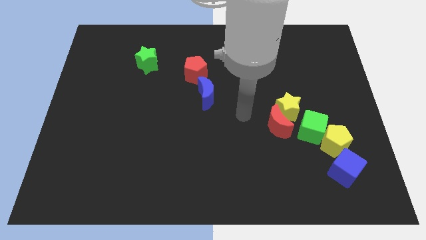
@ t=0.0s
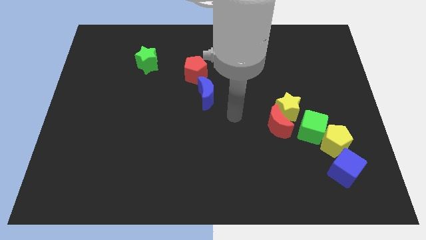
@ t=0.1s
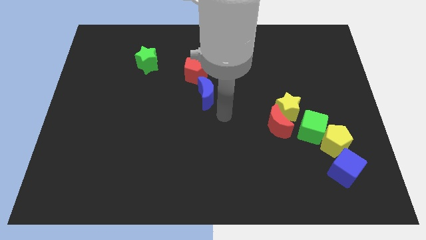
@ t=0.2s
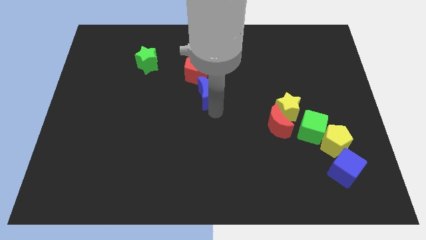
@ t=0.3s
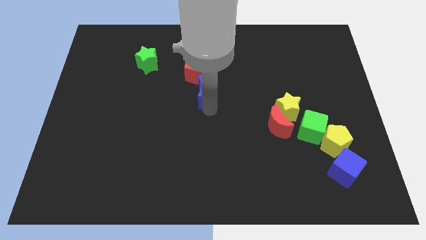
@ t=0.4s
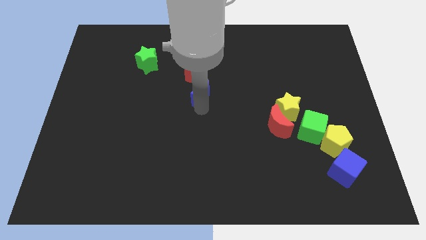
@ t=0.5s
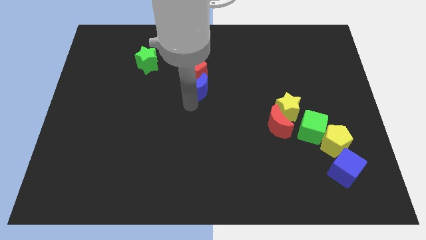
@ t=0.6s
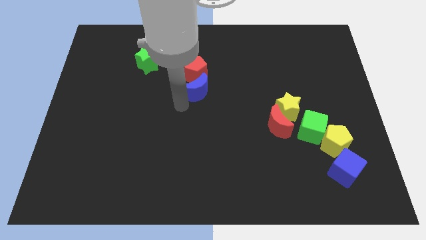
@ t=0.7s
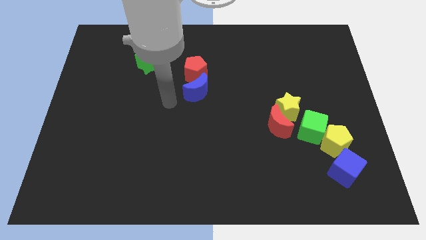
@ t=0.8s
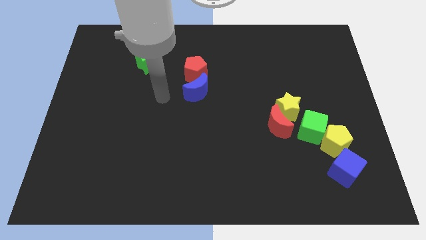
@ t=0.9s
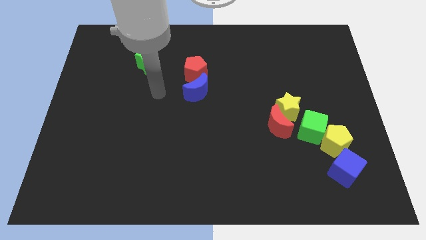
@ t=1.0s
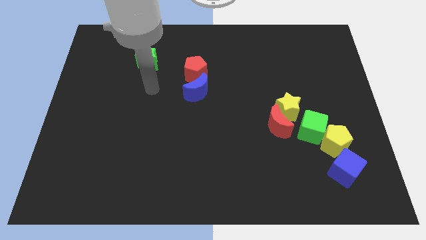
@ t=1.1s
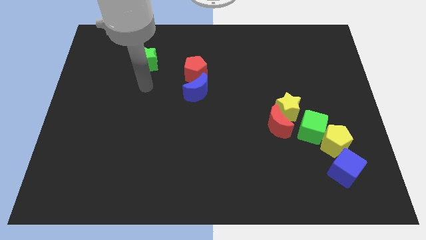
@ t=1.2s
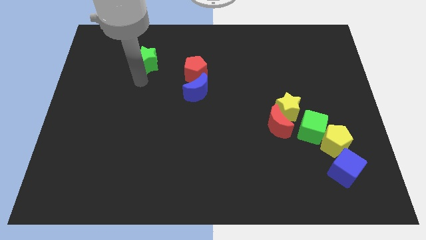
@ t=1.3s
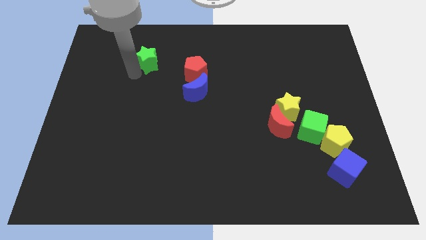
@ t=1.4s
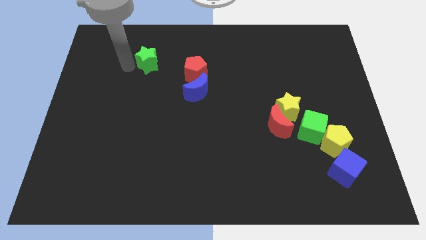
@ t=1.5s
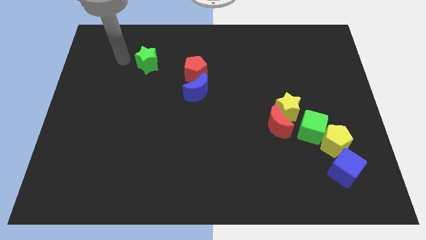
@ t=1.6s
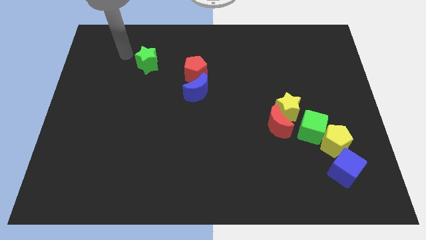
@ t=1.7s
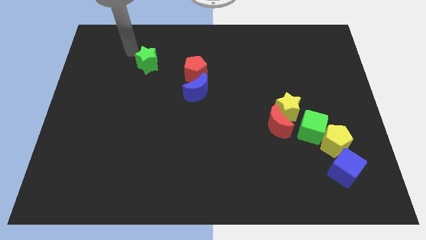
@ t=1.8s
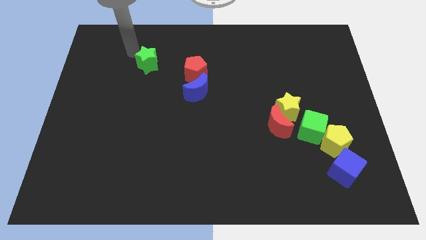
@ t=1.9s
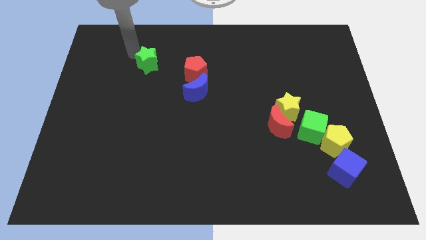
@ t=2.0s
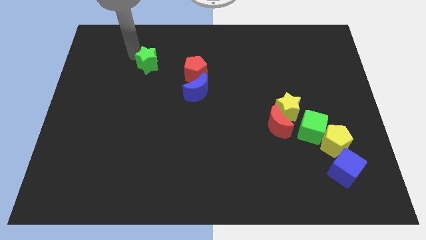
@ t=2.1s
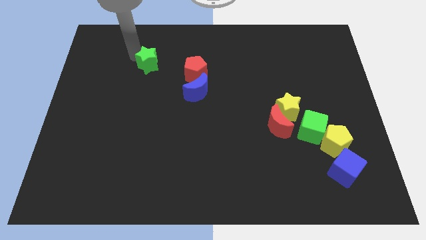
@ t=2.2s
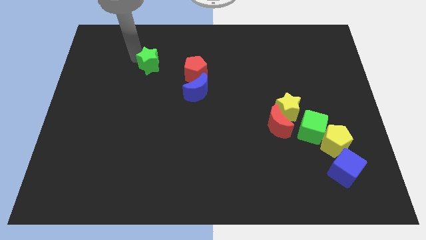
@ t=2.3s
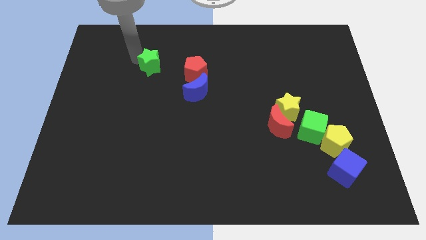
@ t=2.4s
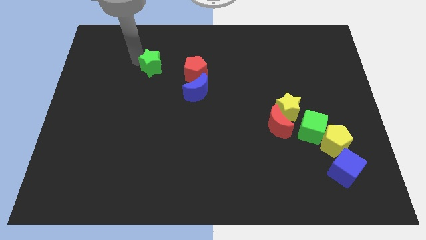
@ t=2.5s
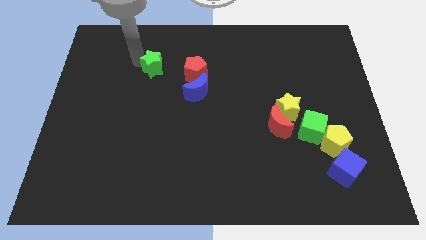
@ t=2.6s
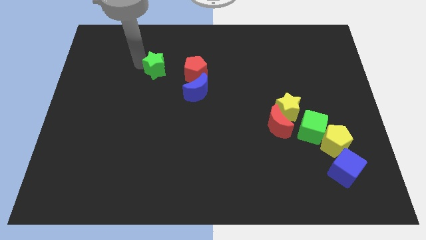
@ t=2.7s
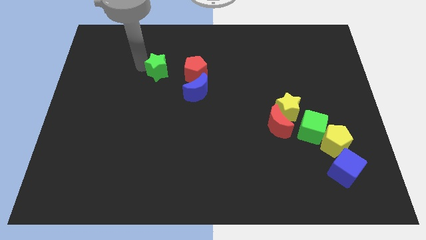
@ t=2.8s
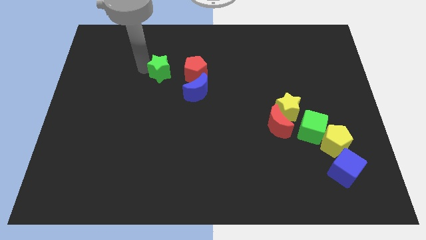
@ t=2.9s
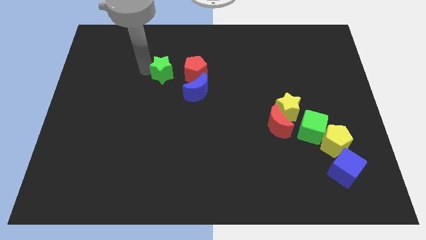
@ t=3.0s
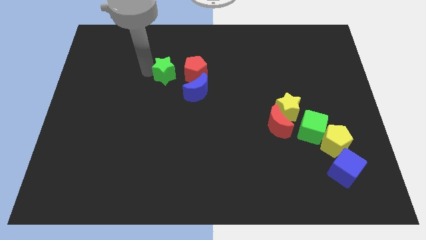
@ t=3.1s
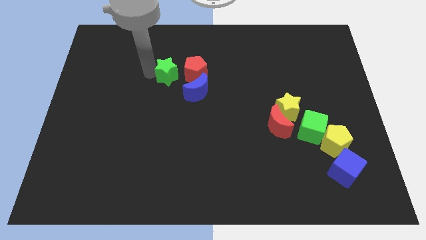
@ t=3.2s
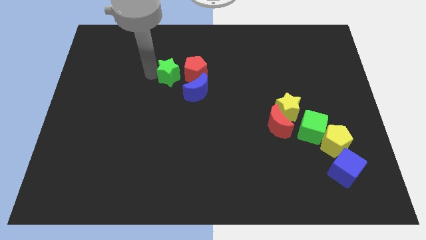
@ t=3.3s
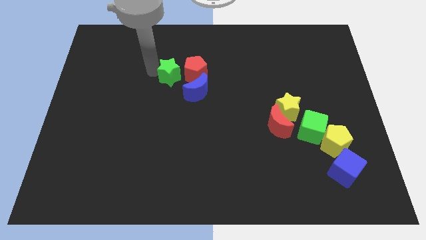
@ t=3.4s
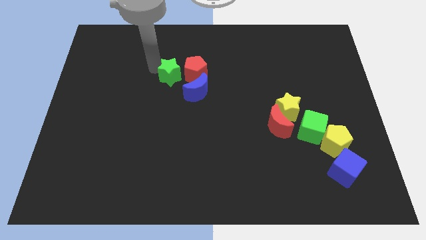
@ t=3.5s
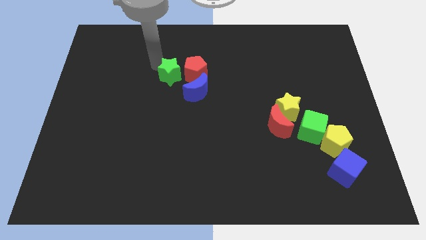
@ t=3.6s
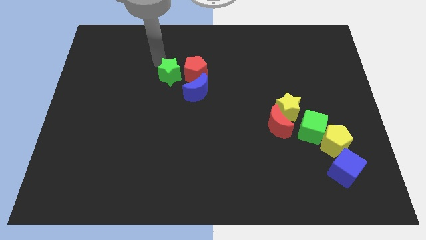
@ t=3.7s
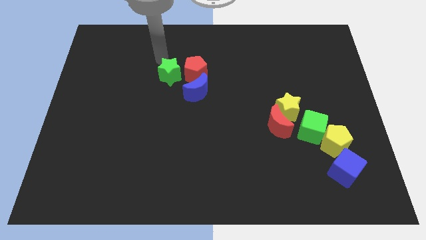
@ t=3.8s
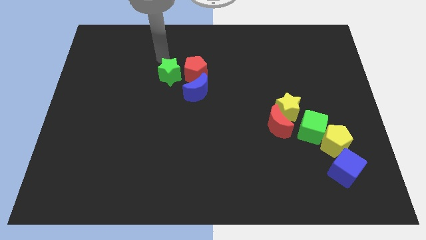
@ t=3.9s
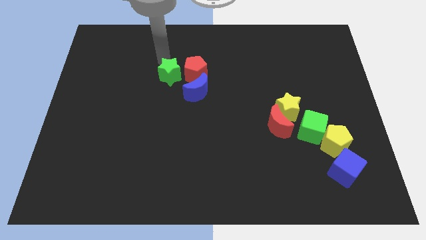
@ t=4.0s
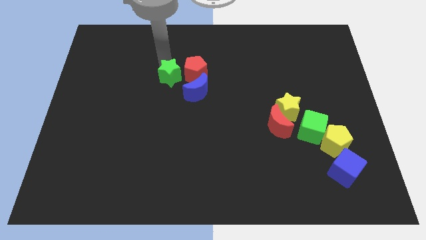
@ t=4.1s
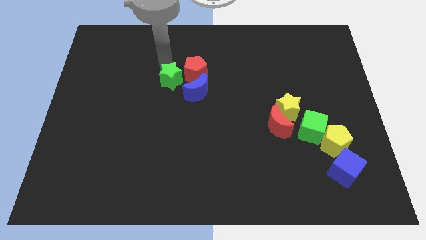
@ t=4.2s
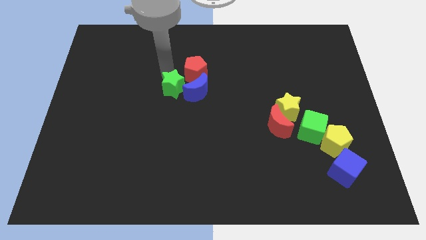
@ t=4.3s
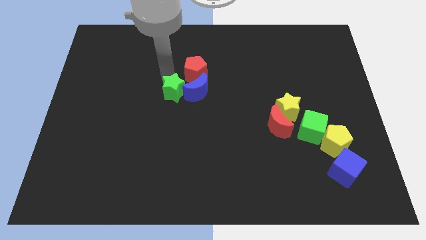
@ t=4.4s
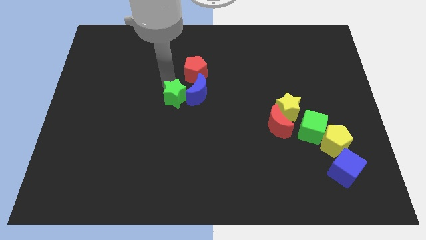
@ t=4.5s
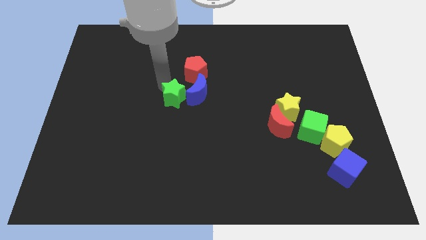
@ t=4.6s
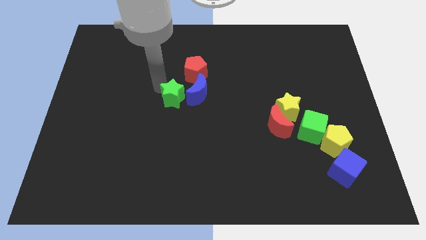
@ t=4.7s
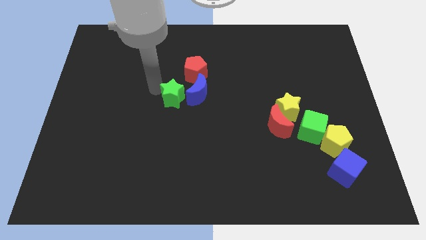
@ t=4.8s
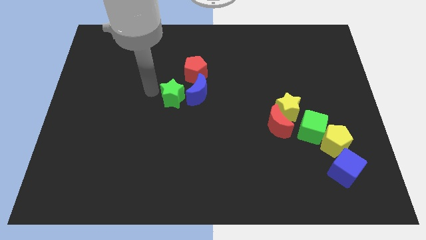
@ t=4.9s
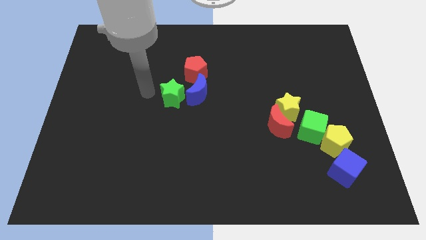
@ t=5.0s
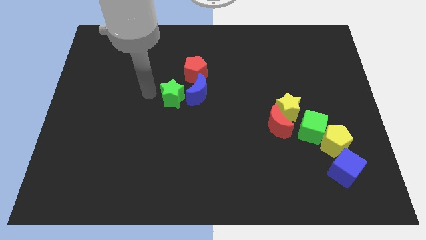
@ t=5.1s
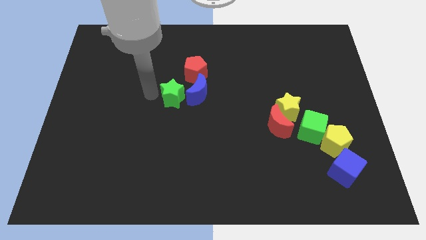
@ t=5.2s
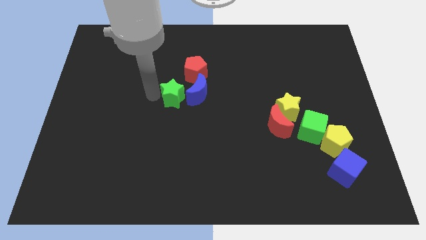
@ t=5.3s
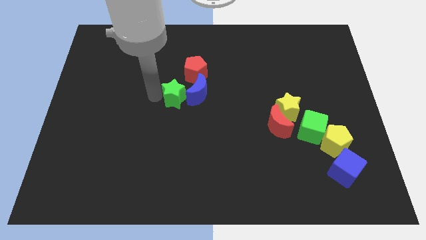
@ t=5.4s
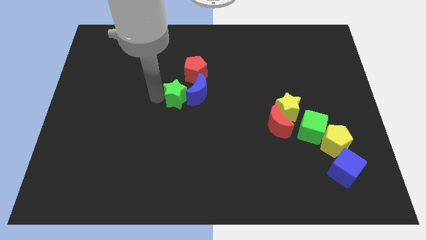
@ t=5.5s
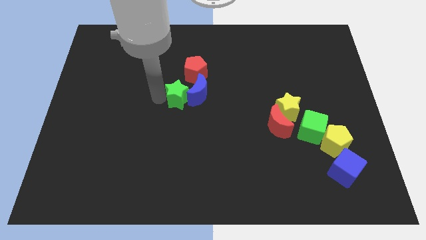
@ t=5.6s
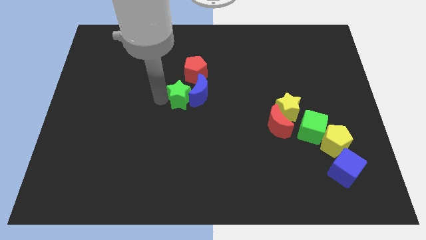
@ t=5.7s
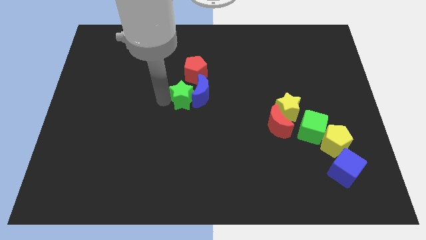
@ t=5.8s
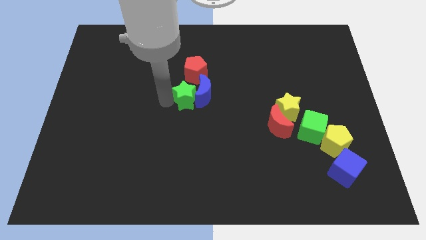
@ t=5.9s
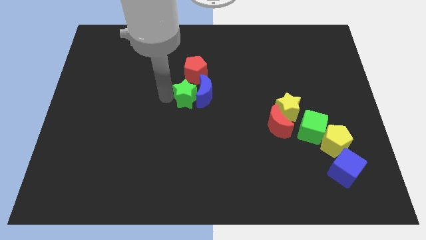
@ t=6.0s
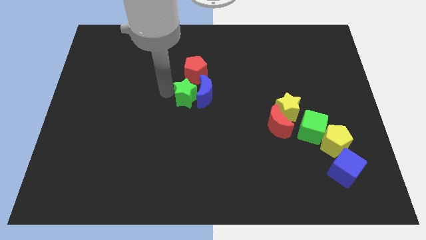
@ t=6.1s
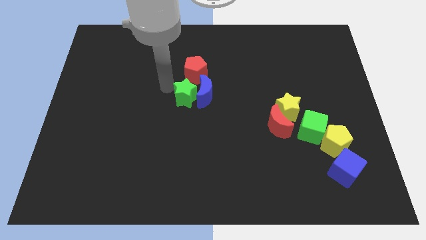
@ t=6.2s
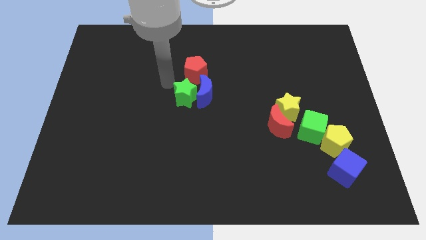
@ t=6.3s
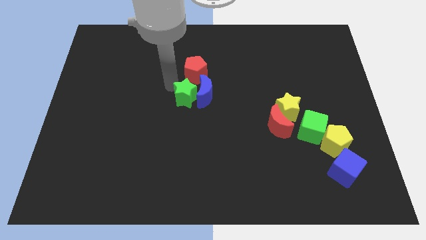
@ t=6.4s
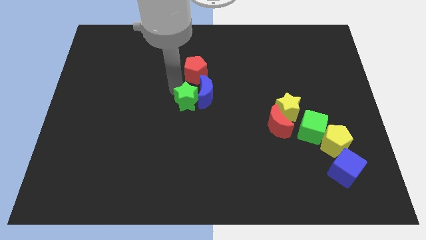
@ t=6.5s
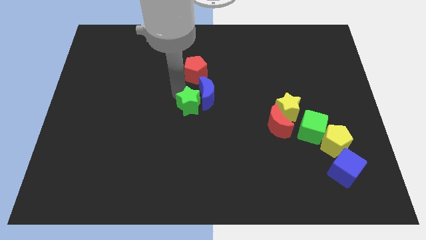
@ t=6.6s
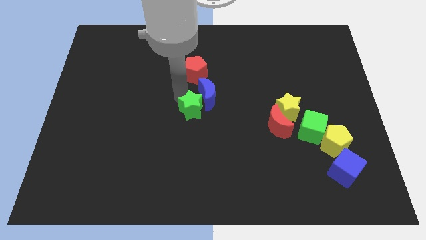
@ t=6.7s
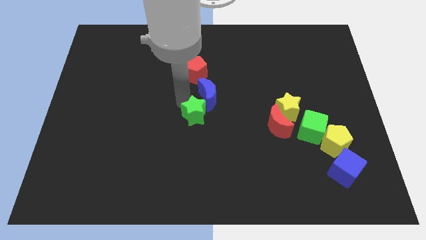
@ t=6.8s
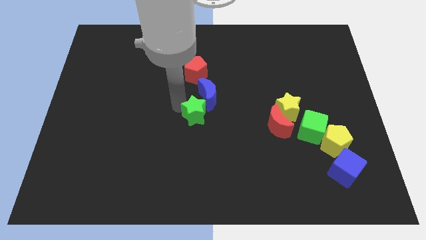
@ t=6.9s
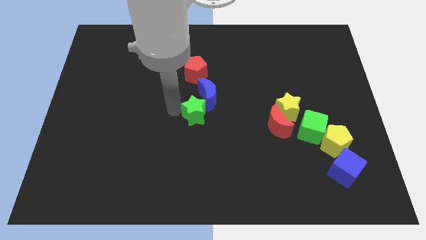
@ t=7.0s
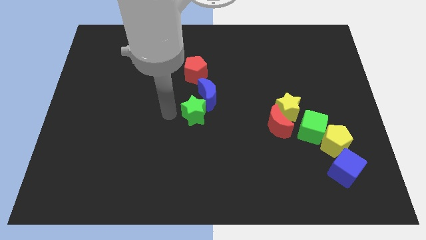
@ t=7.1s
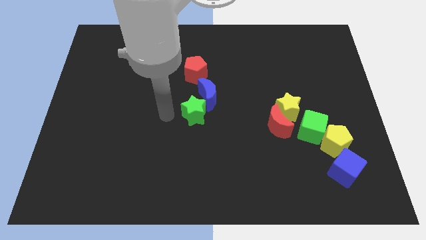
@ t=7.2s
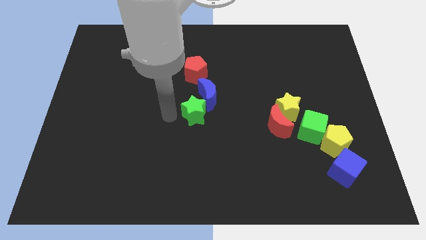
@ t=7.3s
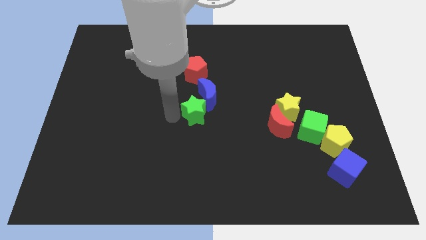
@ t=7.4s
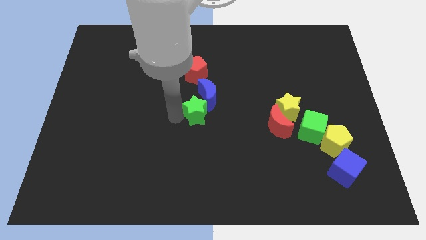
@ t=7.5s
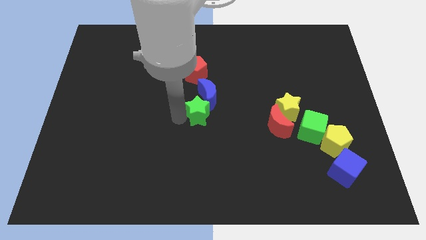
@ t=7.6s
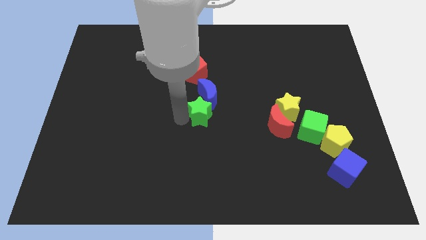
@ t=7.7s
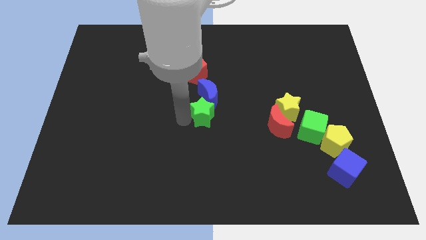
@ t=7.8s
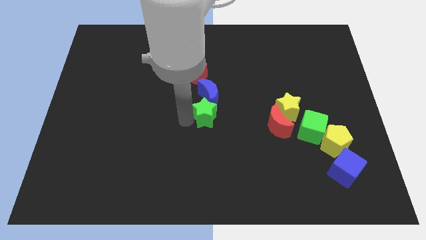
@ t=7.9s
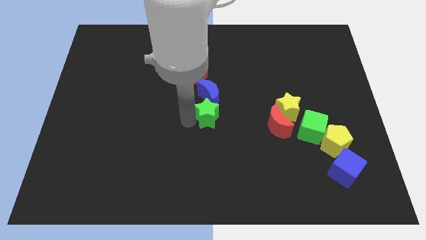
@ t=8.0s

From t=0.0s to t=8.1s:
put the green star to the left of the red moon
